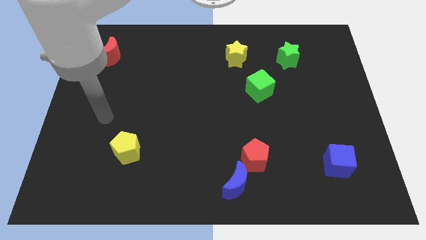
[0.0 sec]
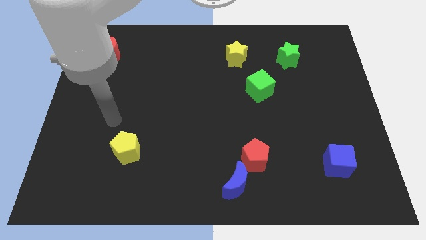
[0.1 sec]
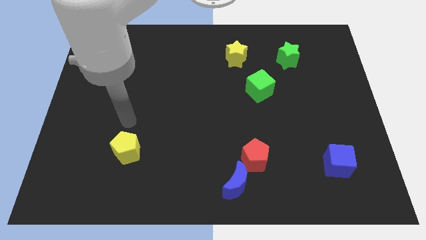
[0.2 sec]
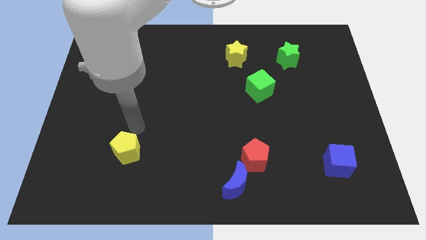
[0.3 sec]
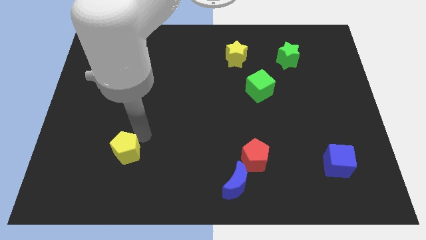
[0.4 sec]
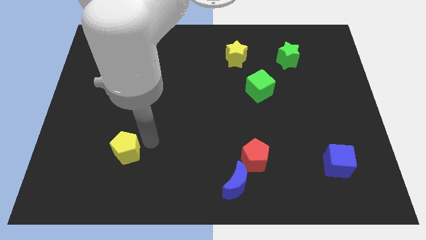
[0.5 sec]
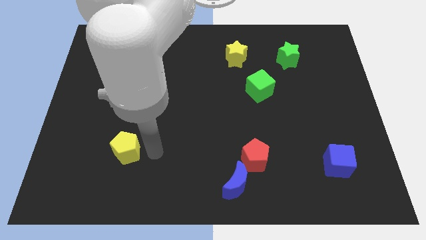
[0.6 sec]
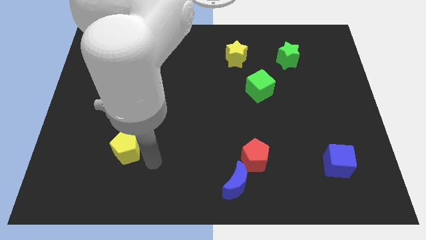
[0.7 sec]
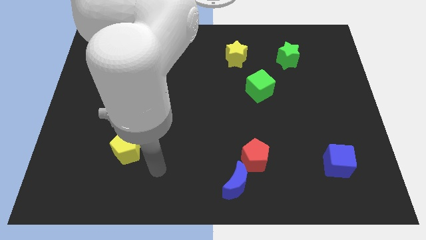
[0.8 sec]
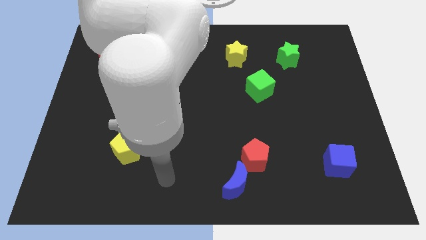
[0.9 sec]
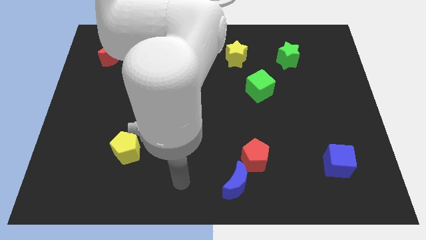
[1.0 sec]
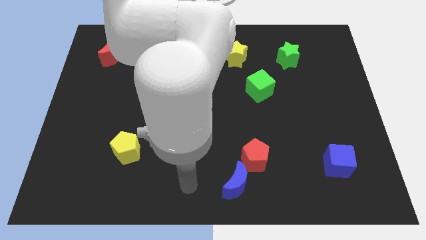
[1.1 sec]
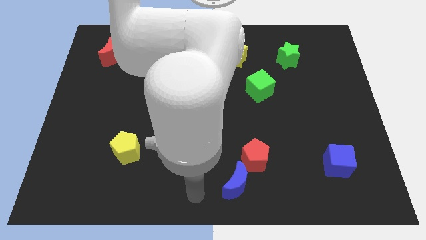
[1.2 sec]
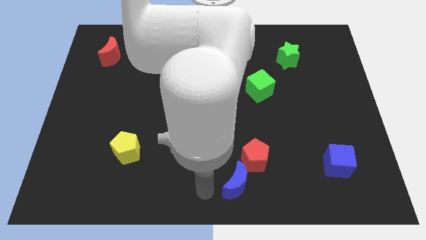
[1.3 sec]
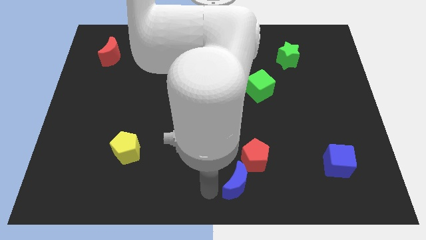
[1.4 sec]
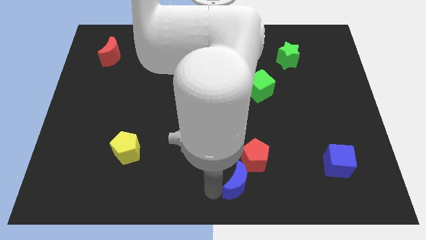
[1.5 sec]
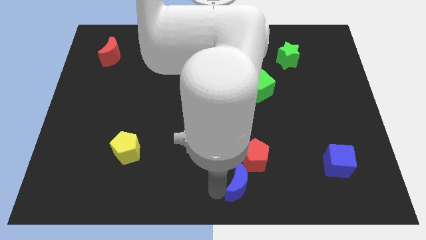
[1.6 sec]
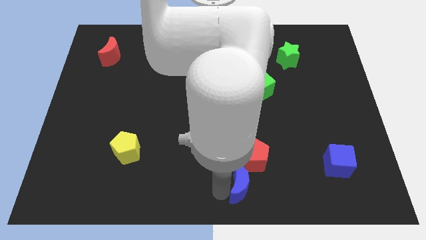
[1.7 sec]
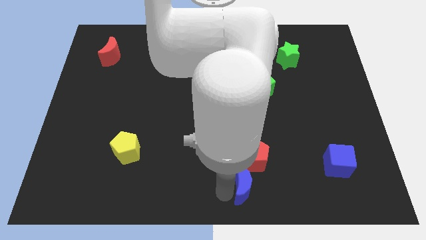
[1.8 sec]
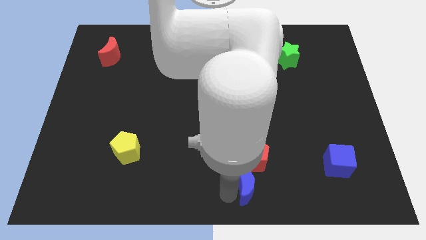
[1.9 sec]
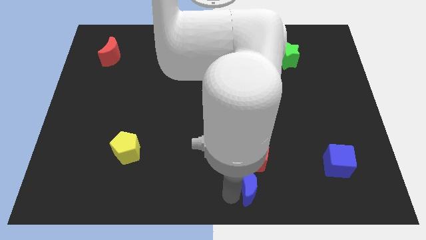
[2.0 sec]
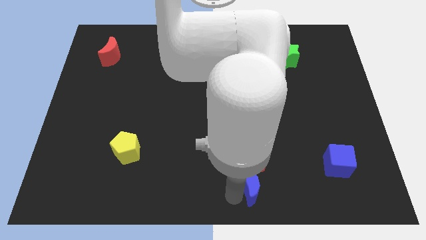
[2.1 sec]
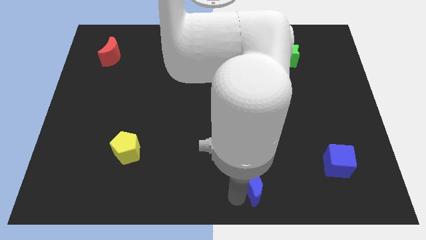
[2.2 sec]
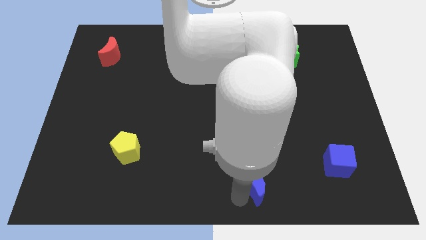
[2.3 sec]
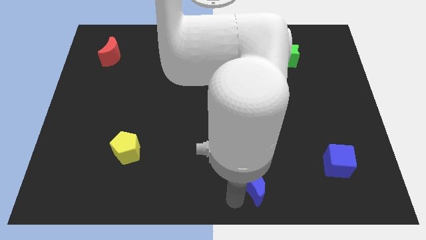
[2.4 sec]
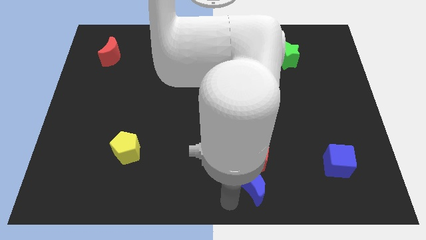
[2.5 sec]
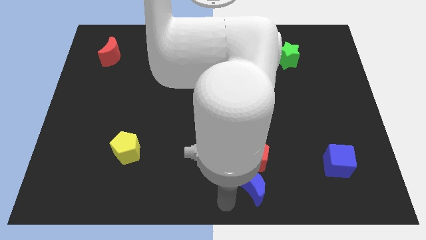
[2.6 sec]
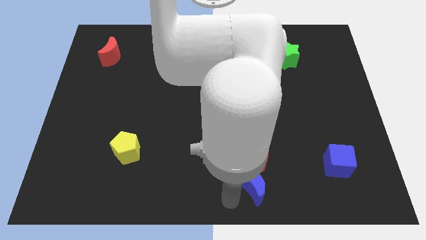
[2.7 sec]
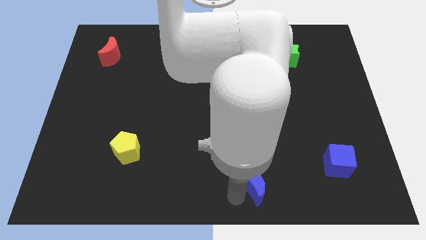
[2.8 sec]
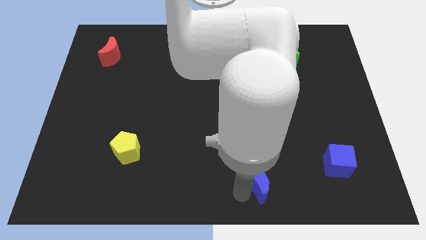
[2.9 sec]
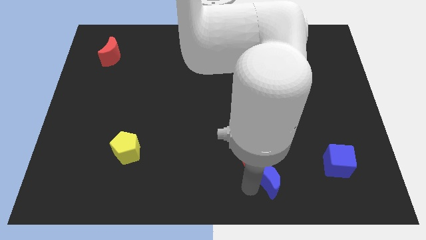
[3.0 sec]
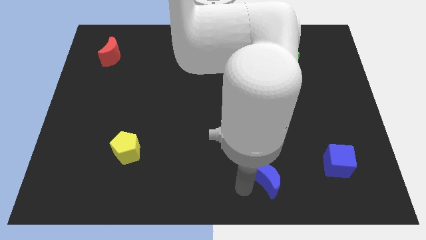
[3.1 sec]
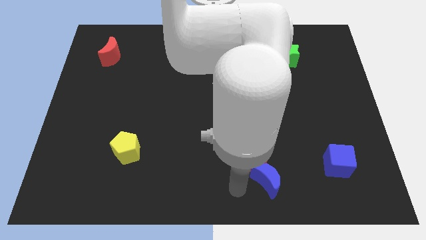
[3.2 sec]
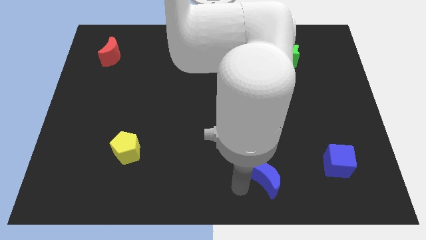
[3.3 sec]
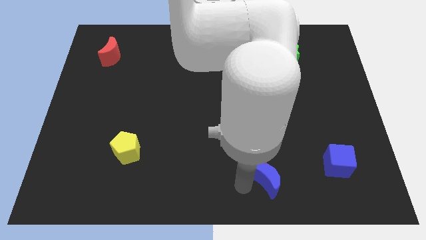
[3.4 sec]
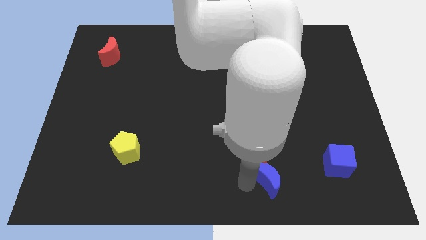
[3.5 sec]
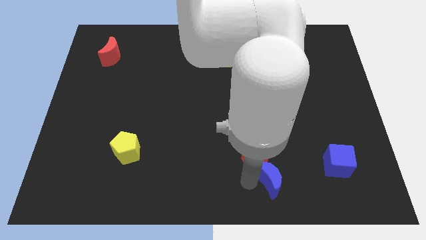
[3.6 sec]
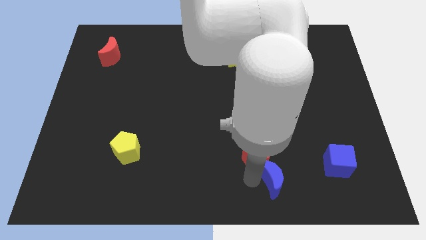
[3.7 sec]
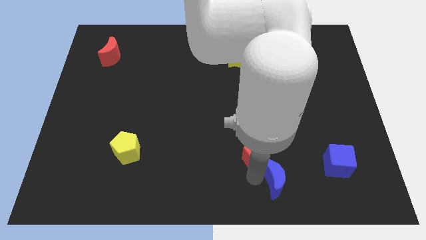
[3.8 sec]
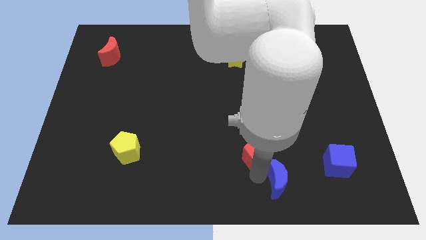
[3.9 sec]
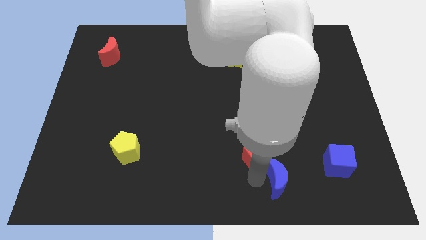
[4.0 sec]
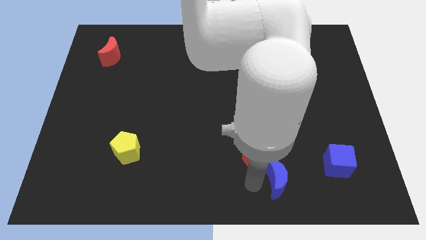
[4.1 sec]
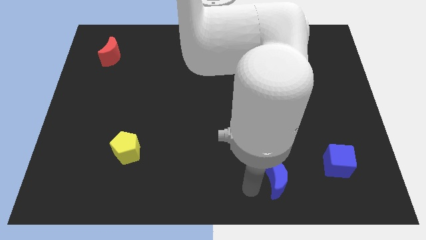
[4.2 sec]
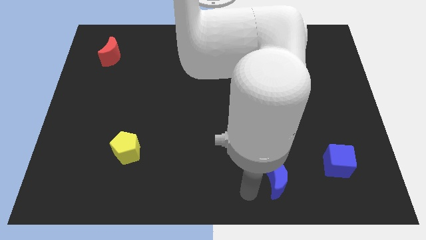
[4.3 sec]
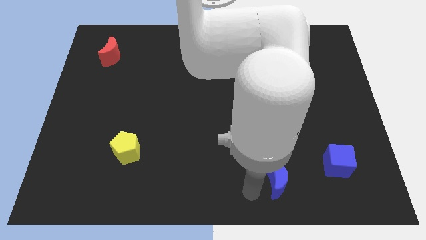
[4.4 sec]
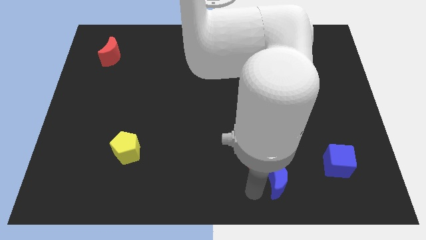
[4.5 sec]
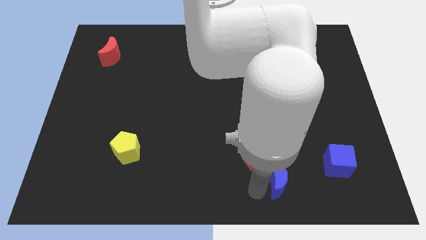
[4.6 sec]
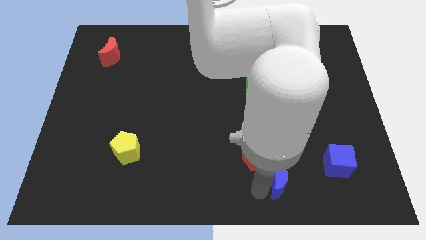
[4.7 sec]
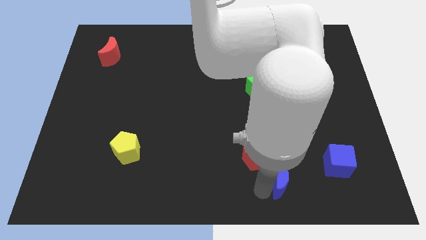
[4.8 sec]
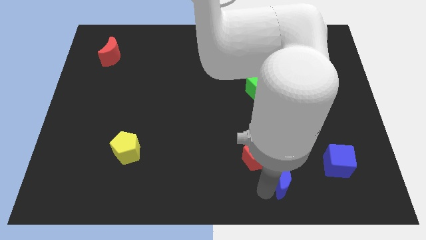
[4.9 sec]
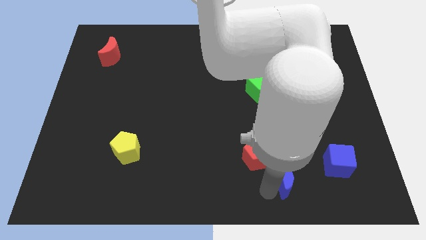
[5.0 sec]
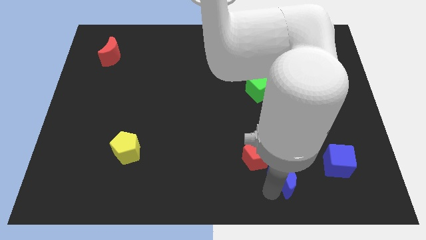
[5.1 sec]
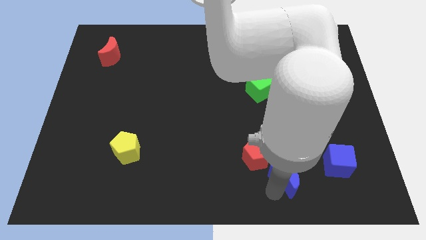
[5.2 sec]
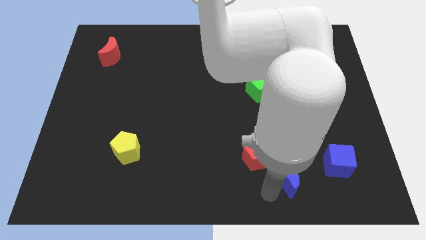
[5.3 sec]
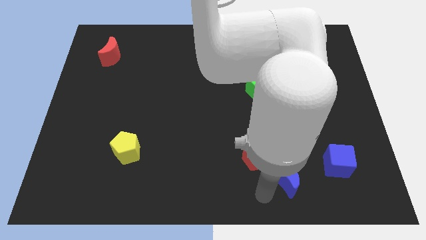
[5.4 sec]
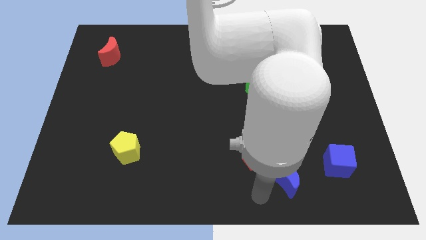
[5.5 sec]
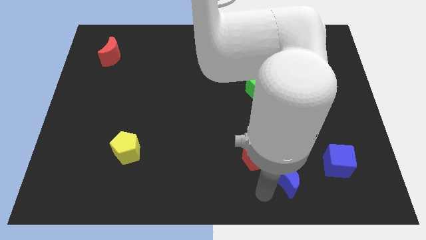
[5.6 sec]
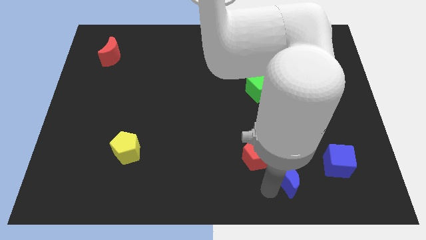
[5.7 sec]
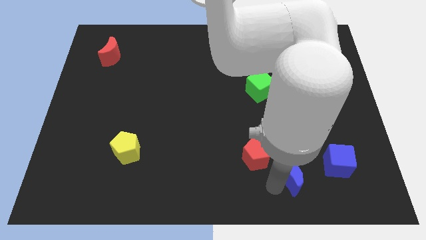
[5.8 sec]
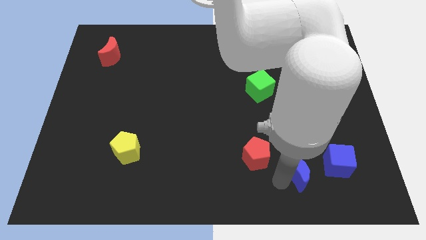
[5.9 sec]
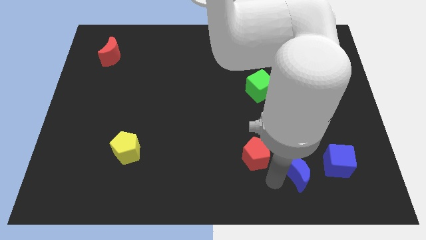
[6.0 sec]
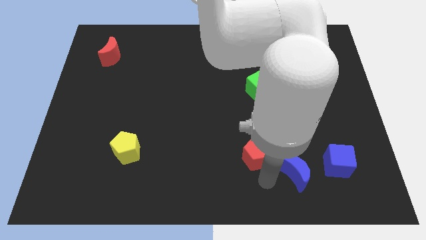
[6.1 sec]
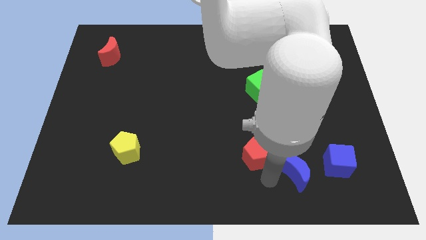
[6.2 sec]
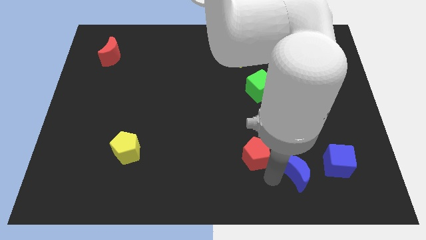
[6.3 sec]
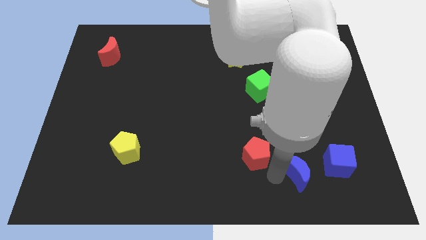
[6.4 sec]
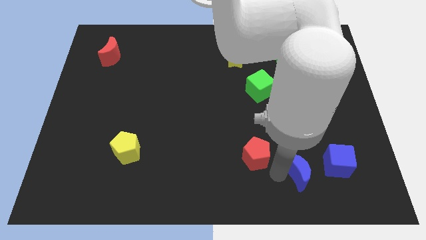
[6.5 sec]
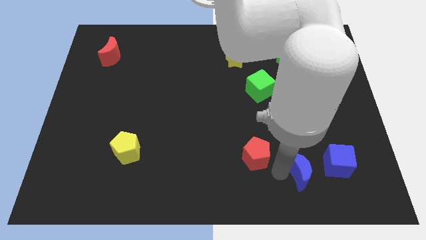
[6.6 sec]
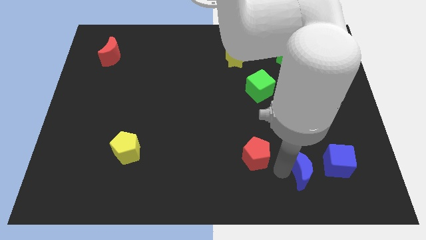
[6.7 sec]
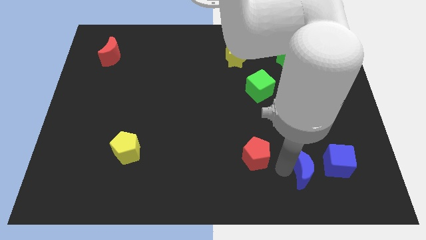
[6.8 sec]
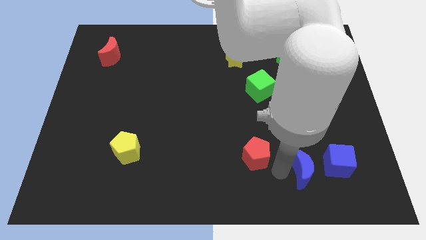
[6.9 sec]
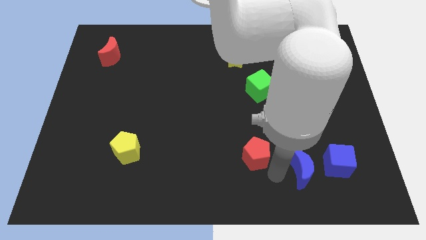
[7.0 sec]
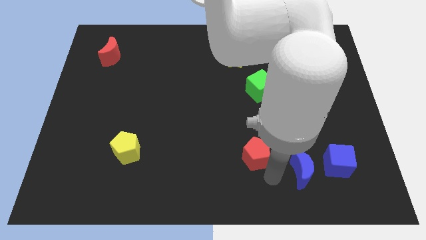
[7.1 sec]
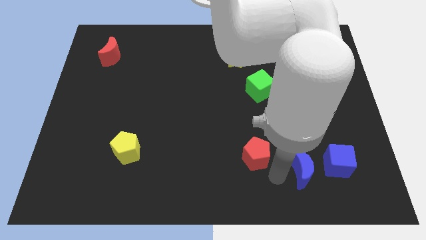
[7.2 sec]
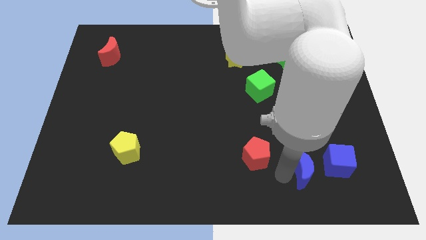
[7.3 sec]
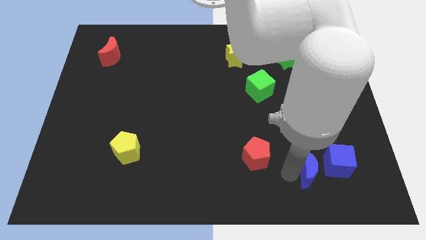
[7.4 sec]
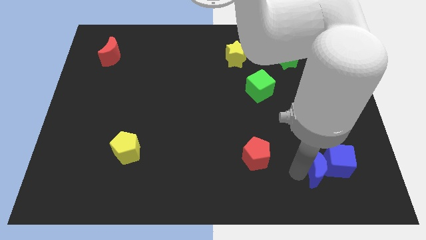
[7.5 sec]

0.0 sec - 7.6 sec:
push the blue moon to the blue cube

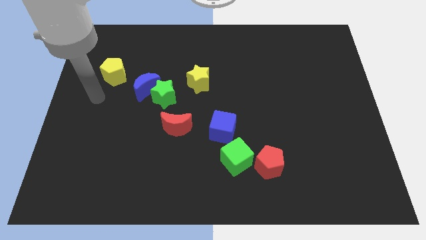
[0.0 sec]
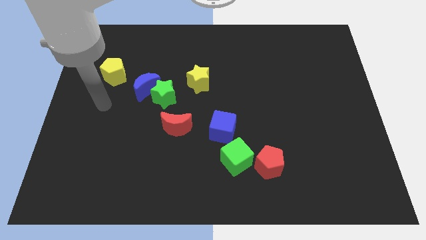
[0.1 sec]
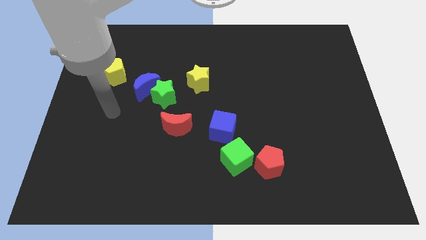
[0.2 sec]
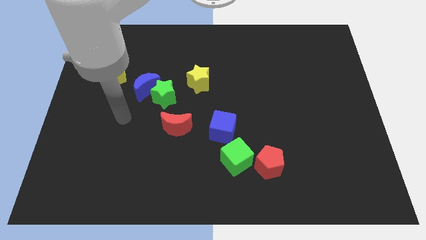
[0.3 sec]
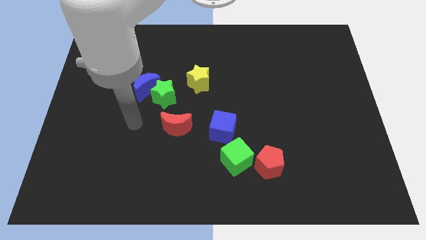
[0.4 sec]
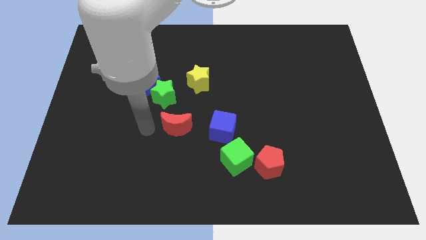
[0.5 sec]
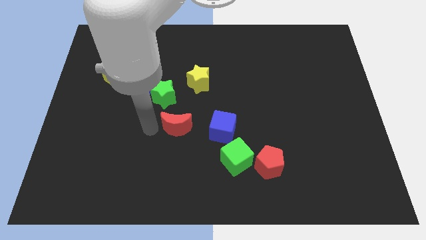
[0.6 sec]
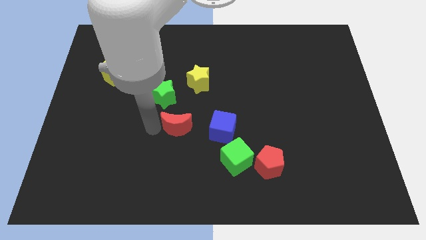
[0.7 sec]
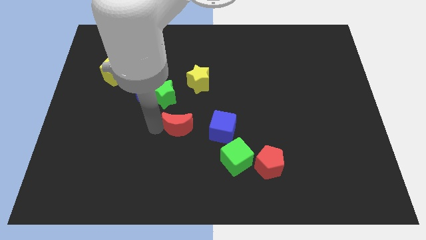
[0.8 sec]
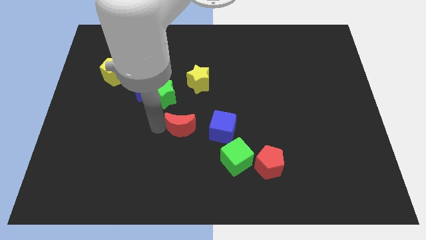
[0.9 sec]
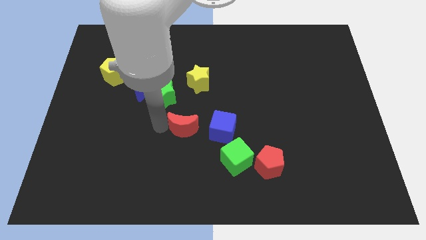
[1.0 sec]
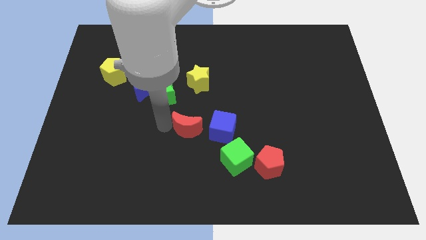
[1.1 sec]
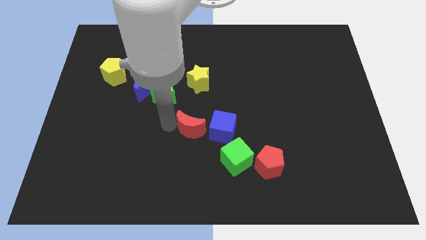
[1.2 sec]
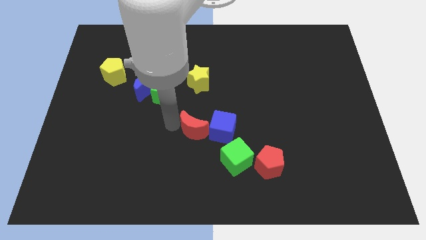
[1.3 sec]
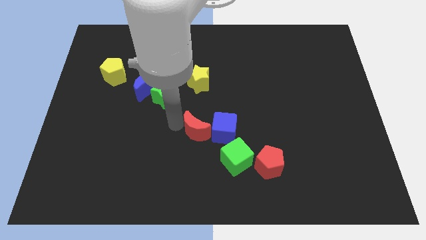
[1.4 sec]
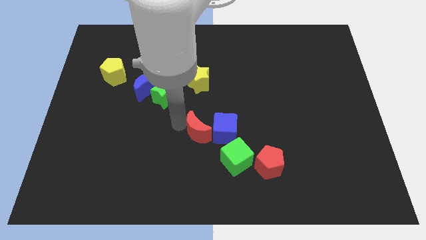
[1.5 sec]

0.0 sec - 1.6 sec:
move the red moon towards the blue cube
